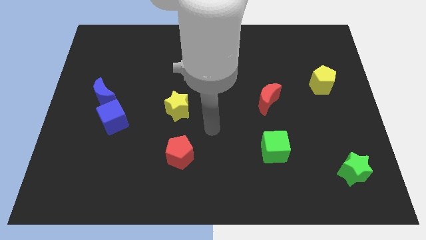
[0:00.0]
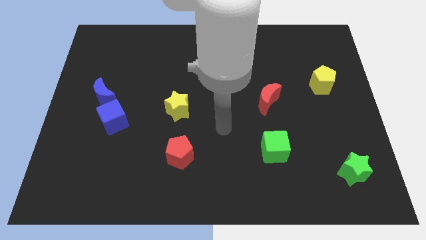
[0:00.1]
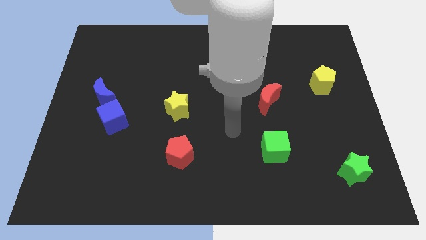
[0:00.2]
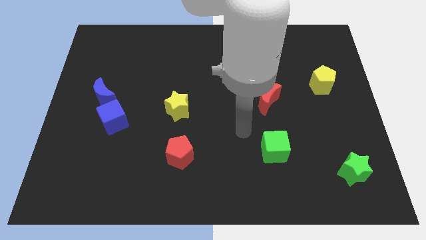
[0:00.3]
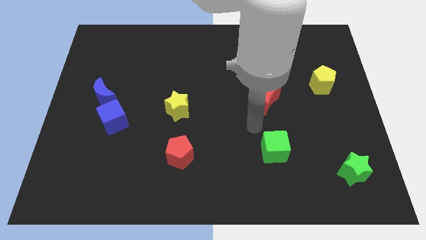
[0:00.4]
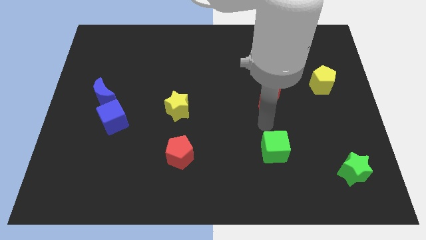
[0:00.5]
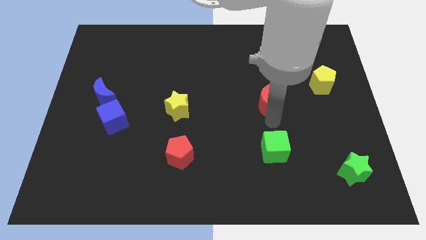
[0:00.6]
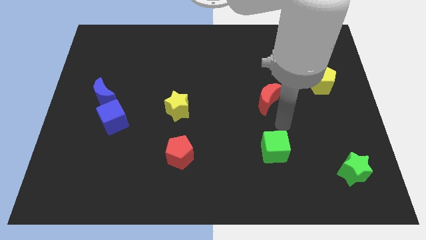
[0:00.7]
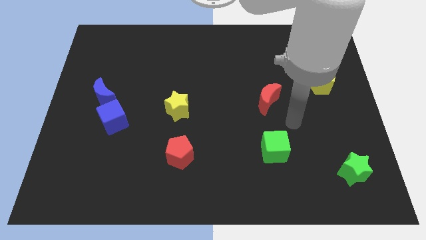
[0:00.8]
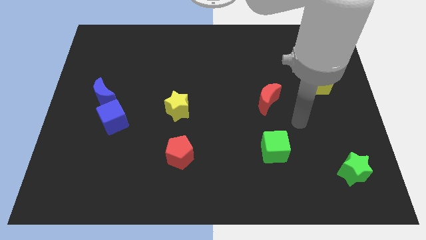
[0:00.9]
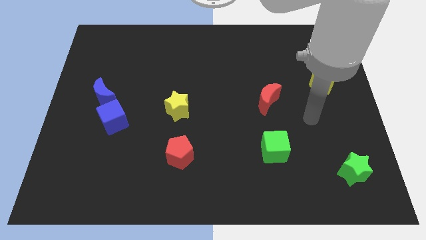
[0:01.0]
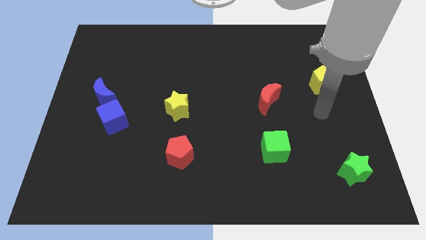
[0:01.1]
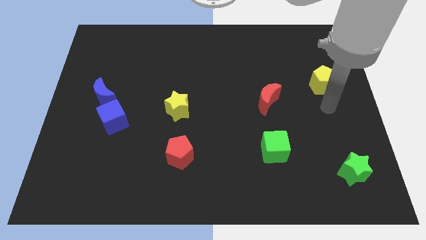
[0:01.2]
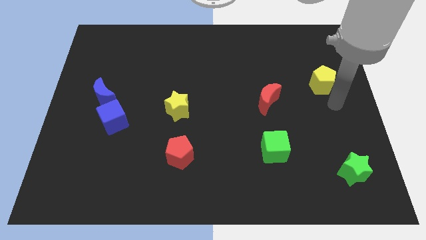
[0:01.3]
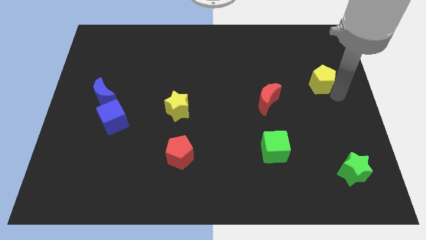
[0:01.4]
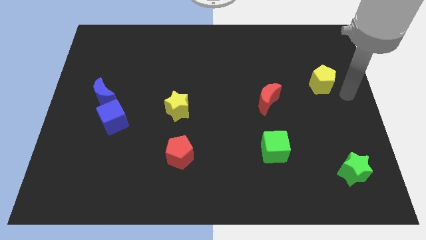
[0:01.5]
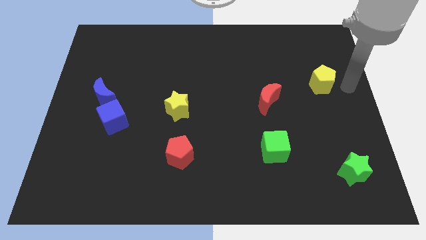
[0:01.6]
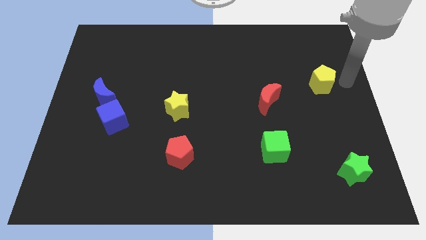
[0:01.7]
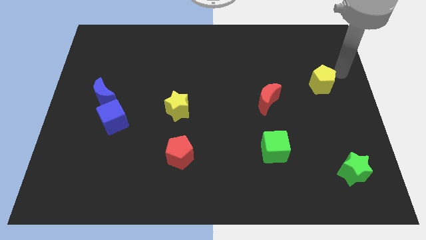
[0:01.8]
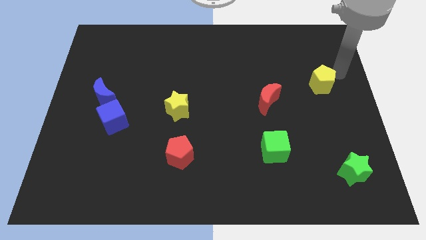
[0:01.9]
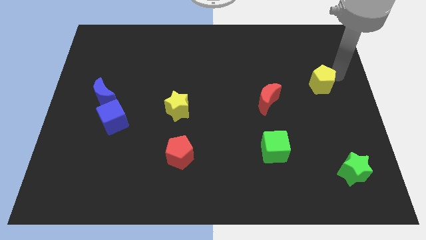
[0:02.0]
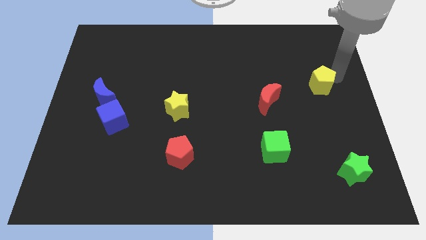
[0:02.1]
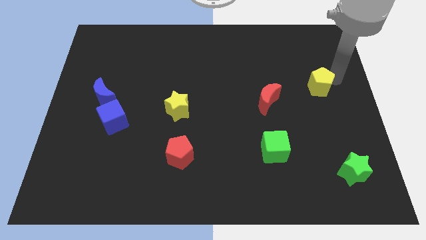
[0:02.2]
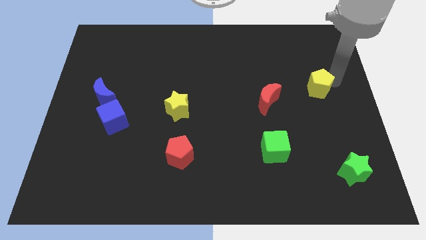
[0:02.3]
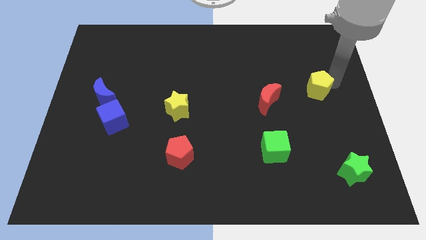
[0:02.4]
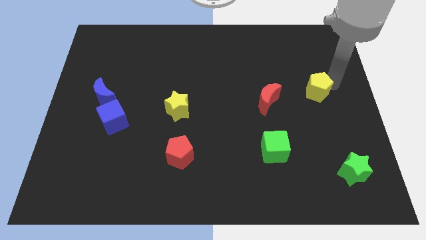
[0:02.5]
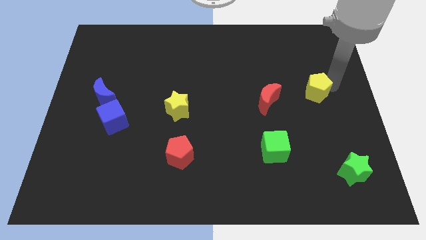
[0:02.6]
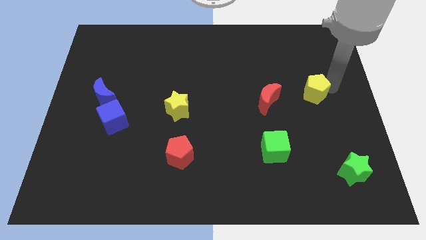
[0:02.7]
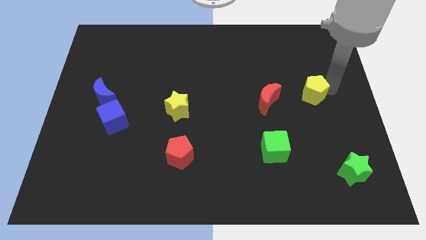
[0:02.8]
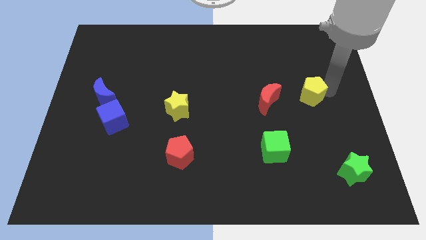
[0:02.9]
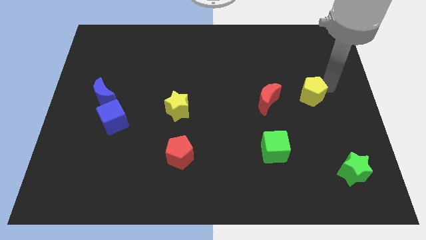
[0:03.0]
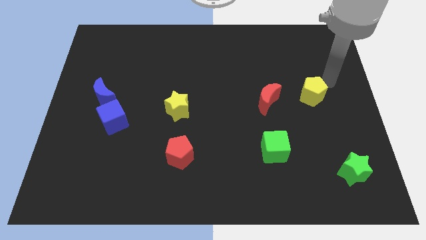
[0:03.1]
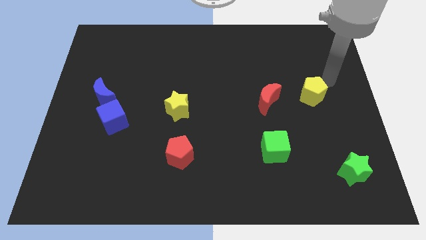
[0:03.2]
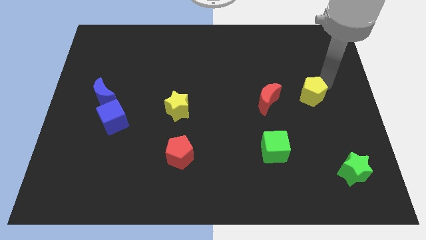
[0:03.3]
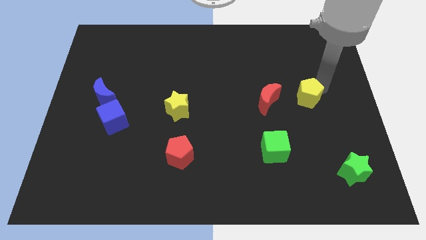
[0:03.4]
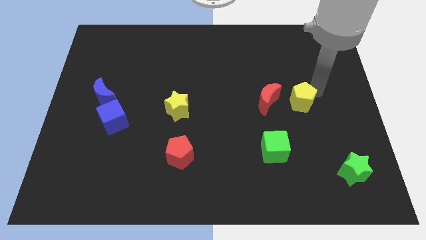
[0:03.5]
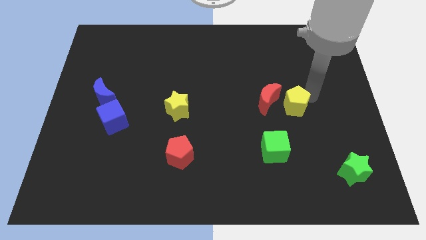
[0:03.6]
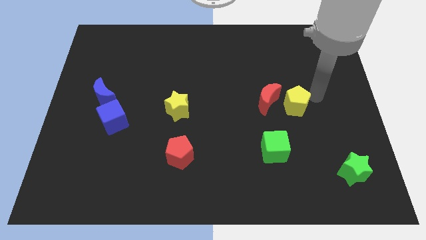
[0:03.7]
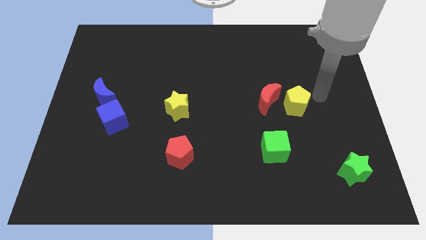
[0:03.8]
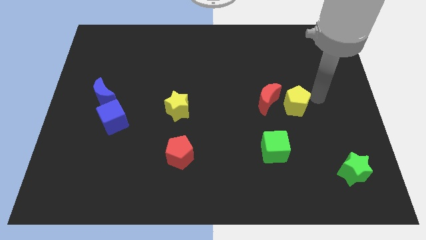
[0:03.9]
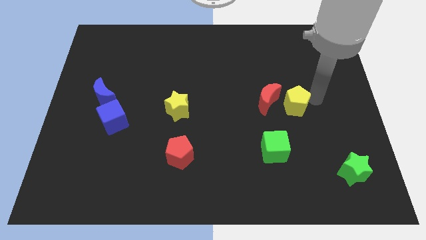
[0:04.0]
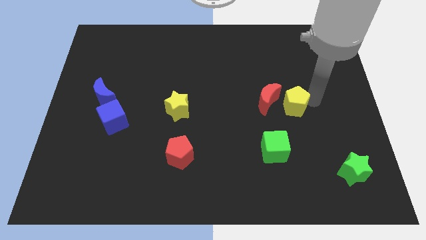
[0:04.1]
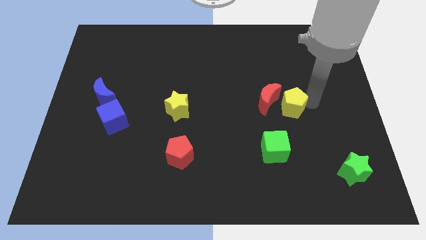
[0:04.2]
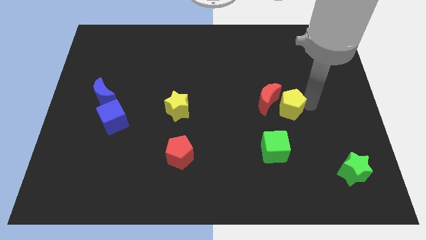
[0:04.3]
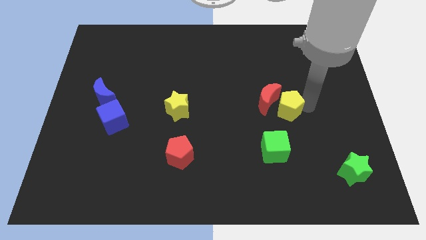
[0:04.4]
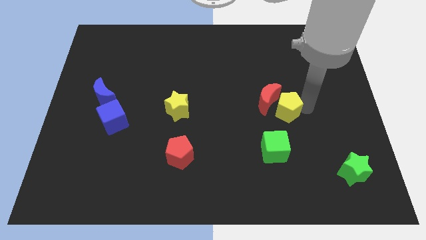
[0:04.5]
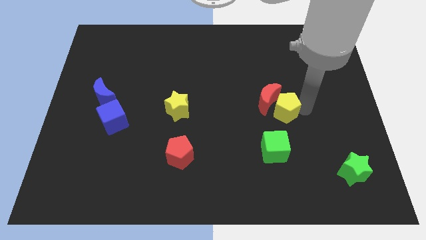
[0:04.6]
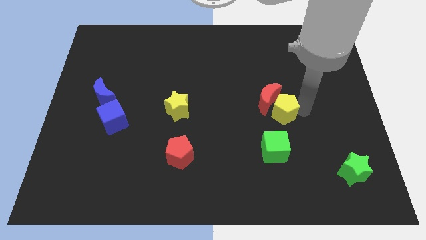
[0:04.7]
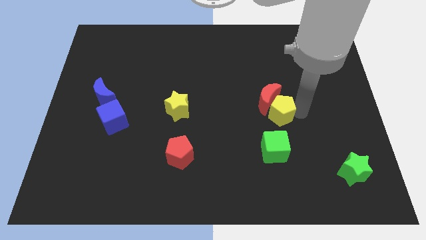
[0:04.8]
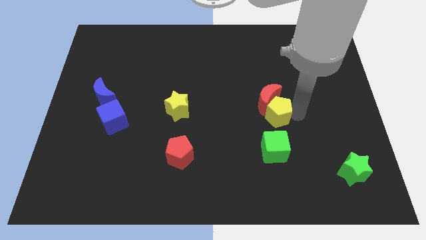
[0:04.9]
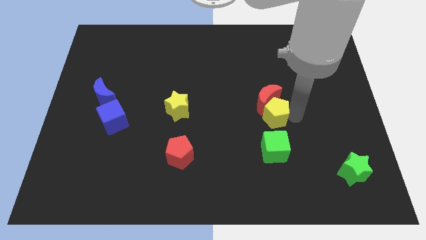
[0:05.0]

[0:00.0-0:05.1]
push the yellow pentagon to the bottom left side of the red moon

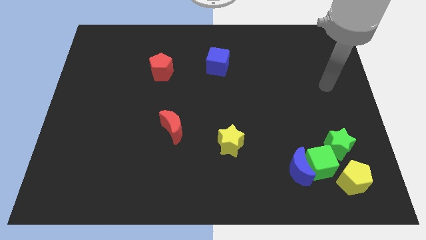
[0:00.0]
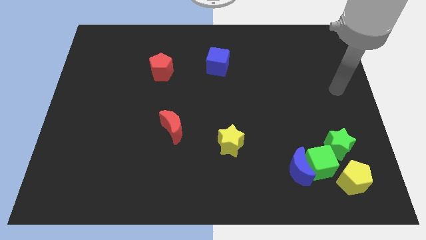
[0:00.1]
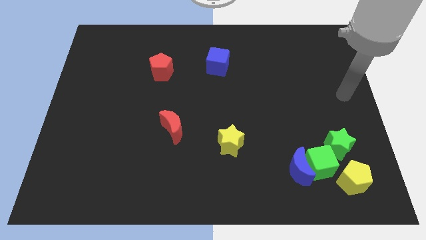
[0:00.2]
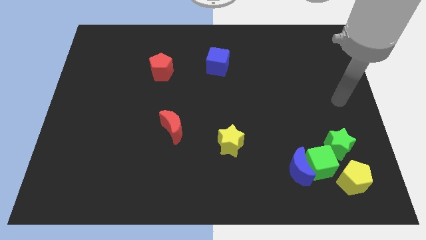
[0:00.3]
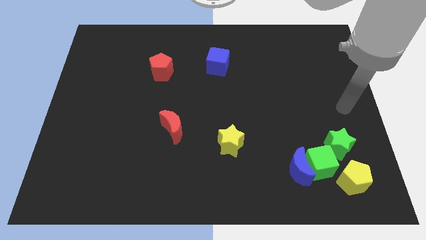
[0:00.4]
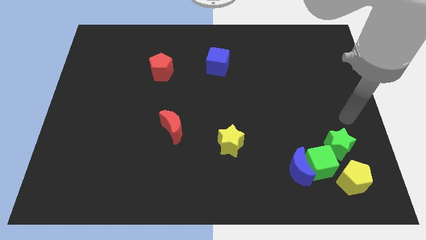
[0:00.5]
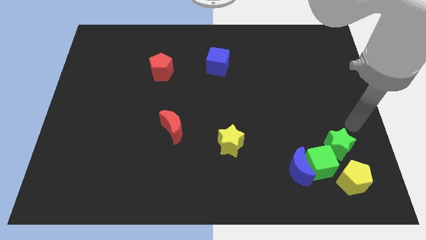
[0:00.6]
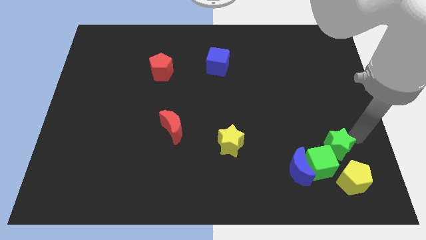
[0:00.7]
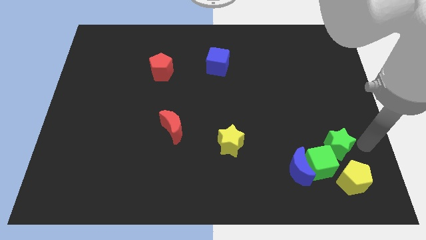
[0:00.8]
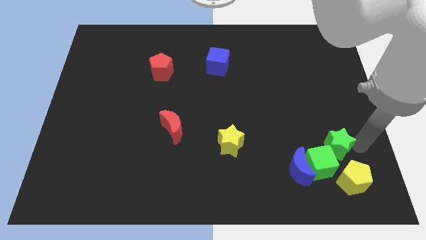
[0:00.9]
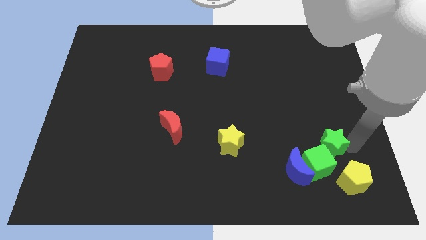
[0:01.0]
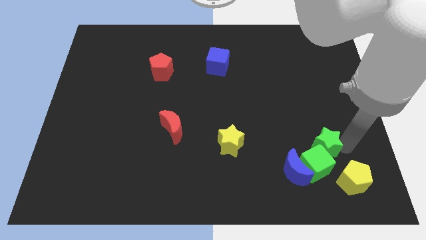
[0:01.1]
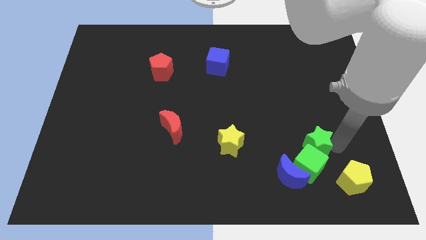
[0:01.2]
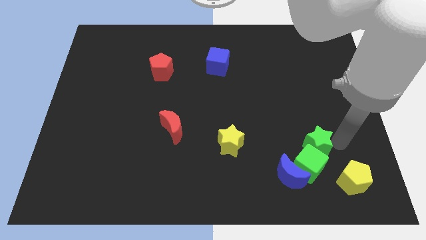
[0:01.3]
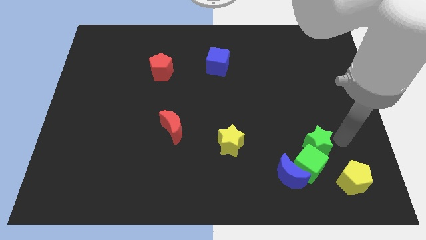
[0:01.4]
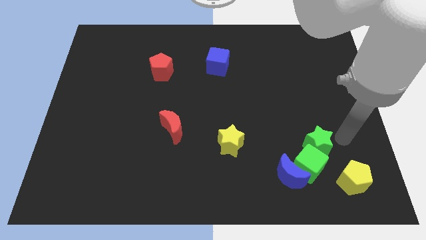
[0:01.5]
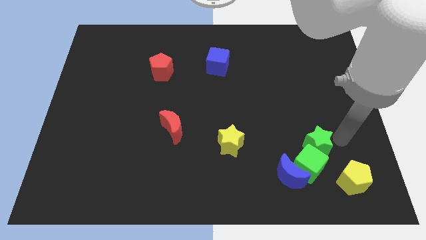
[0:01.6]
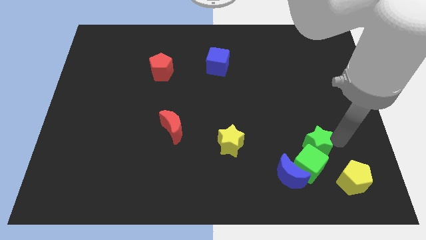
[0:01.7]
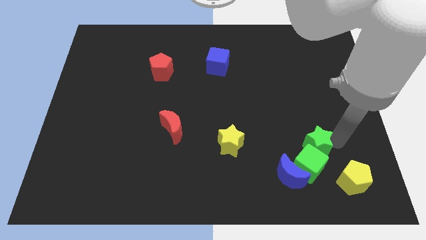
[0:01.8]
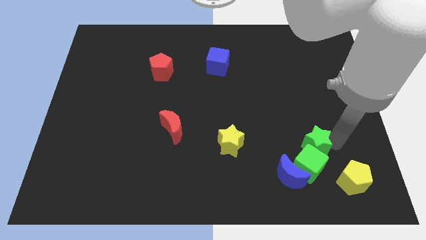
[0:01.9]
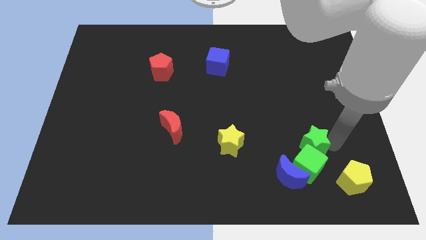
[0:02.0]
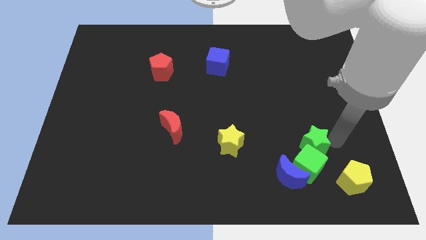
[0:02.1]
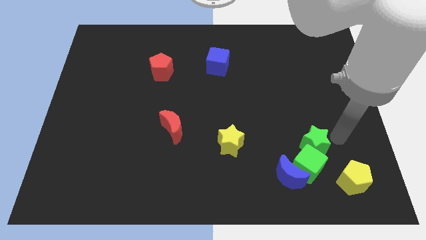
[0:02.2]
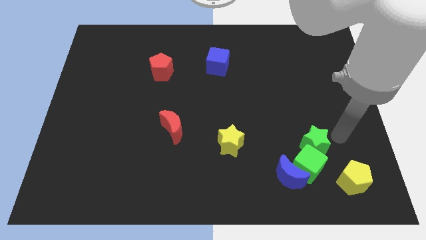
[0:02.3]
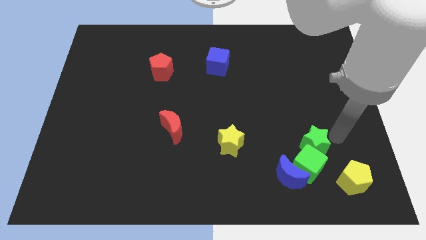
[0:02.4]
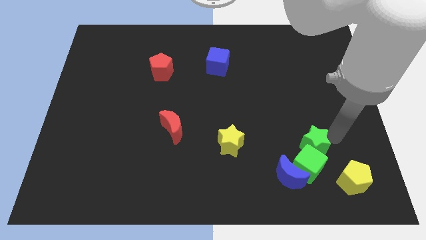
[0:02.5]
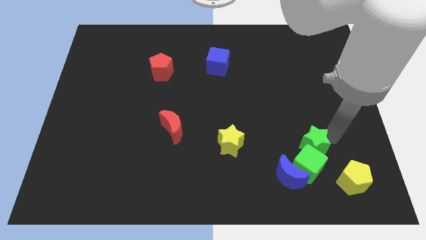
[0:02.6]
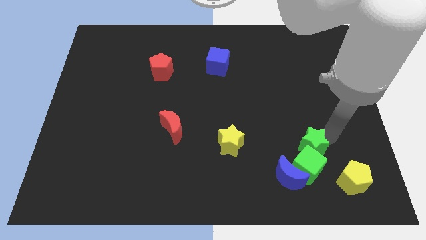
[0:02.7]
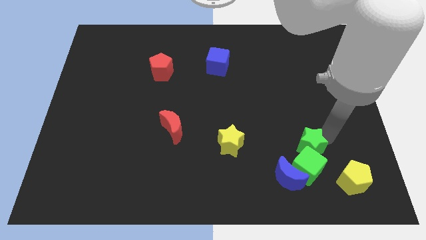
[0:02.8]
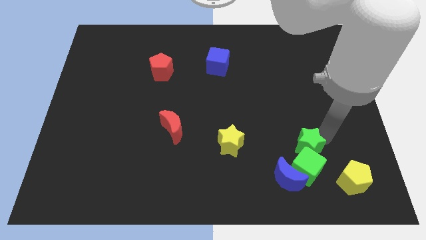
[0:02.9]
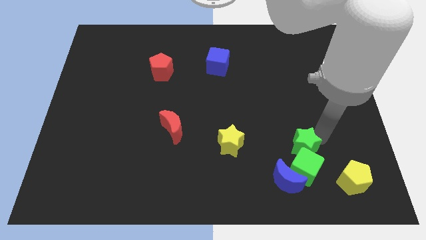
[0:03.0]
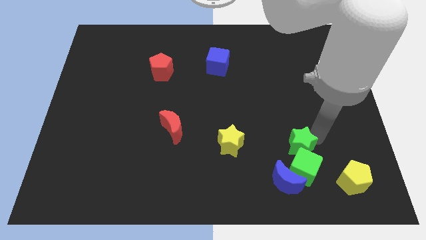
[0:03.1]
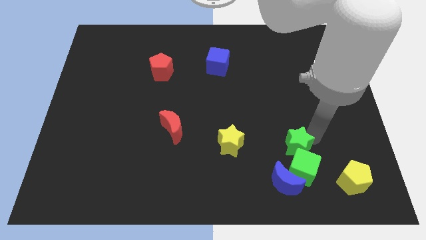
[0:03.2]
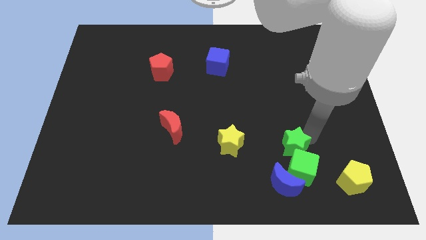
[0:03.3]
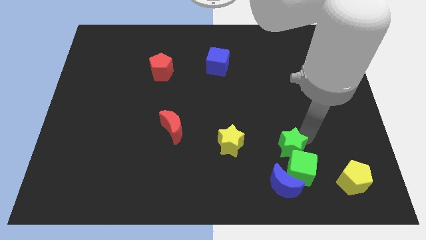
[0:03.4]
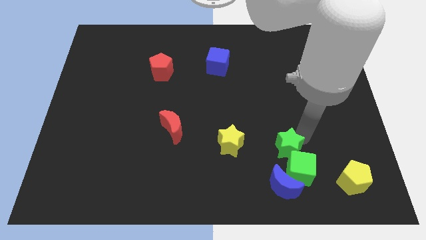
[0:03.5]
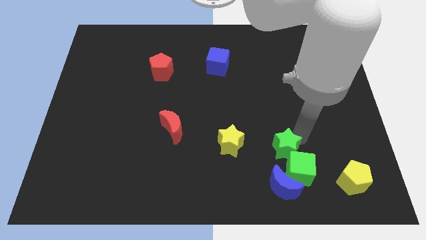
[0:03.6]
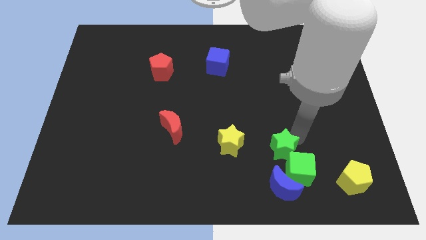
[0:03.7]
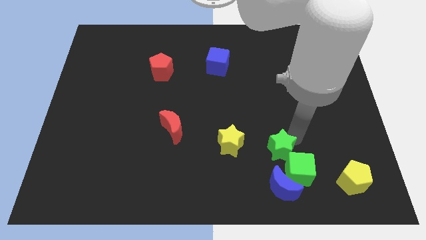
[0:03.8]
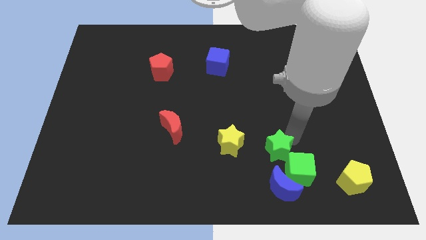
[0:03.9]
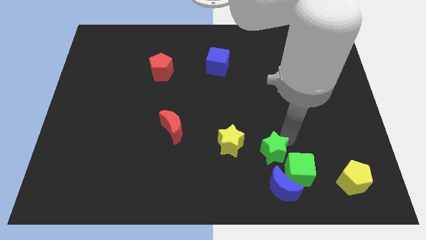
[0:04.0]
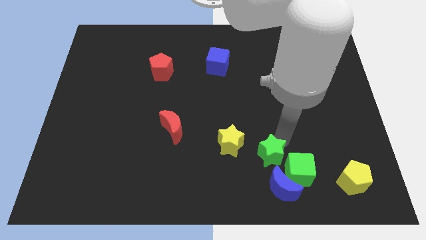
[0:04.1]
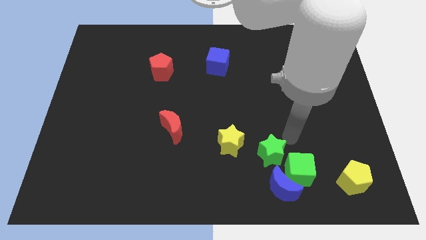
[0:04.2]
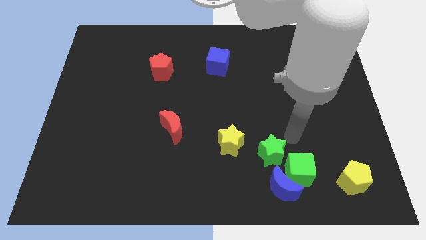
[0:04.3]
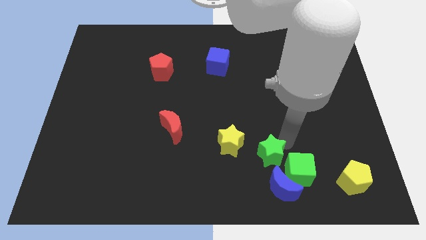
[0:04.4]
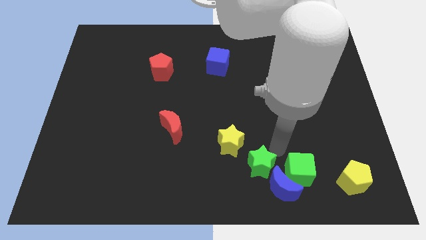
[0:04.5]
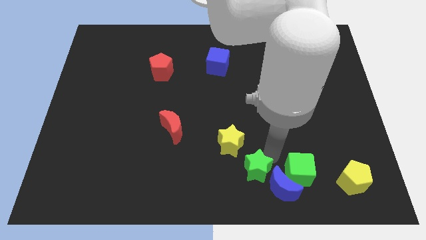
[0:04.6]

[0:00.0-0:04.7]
put the green star just left of the blue moon
